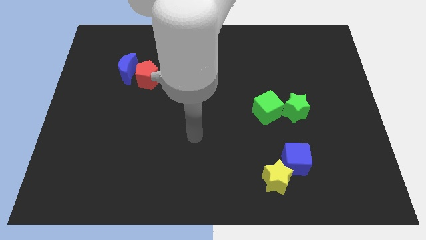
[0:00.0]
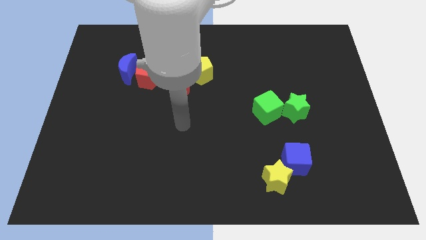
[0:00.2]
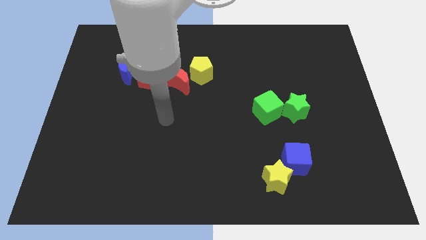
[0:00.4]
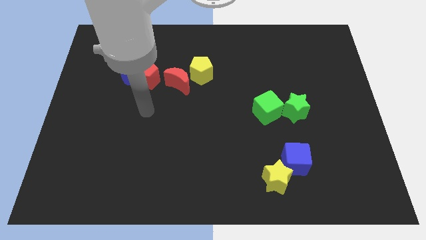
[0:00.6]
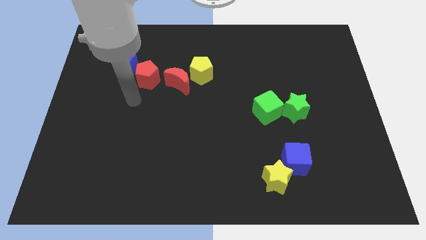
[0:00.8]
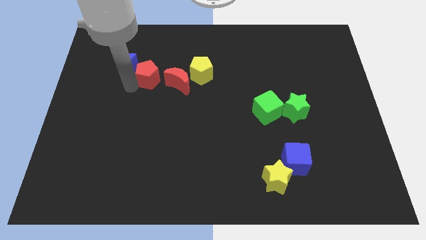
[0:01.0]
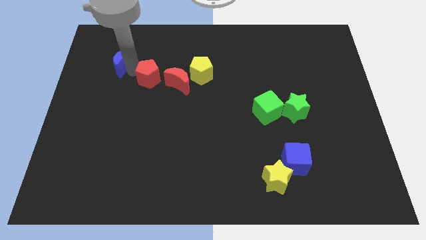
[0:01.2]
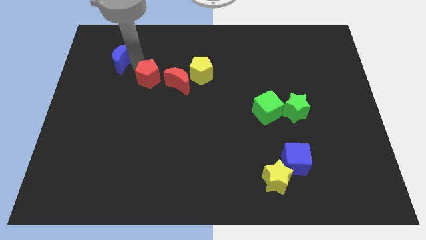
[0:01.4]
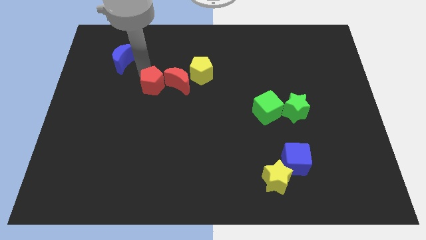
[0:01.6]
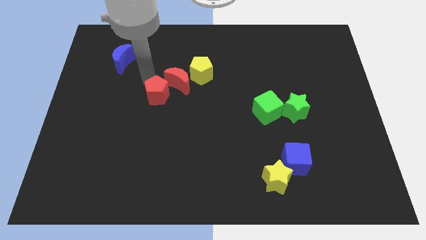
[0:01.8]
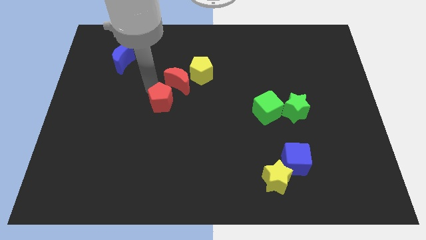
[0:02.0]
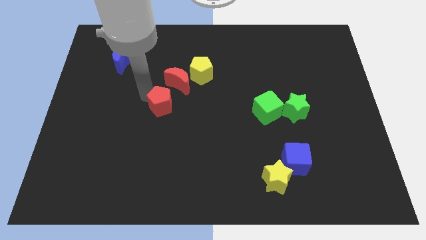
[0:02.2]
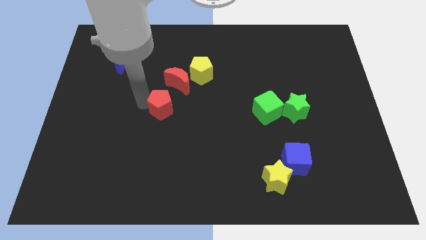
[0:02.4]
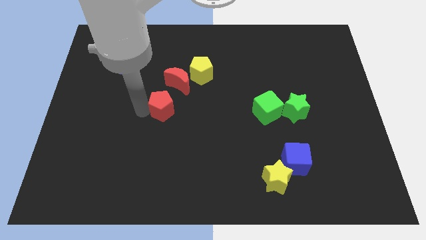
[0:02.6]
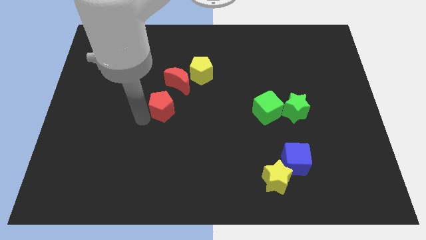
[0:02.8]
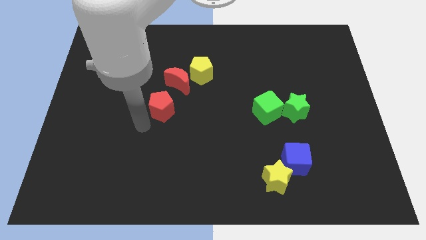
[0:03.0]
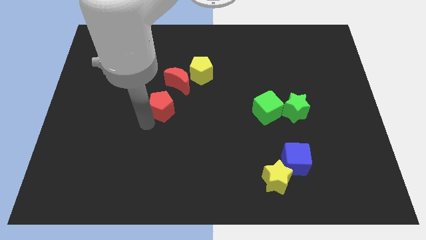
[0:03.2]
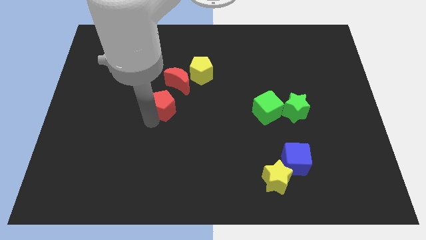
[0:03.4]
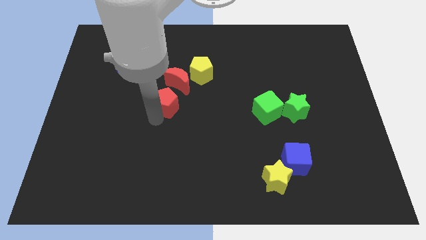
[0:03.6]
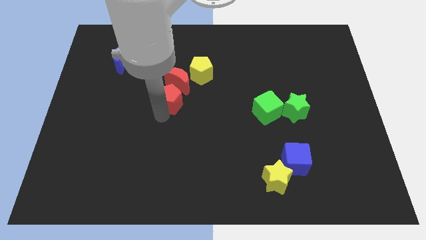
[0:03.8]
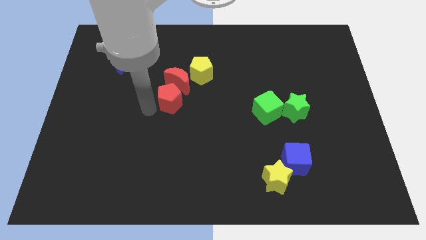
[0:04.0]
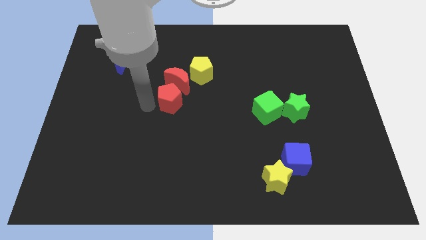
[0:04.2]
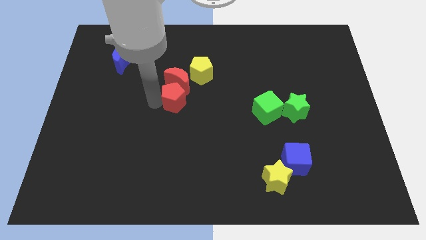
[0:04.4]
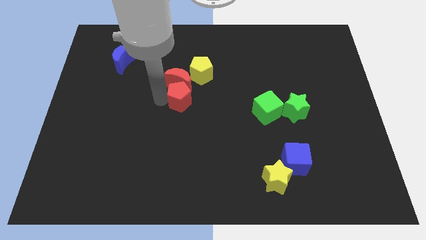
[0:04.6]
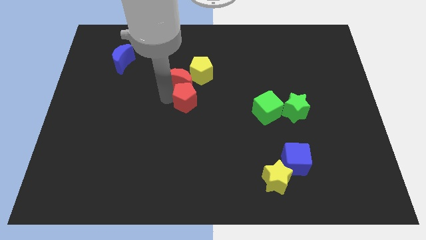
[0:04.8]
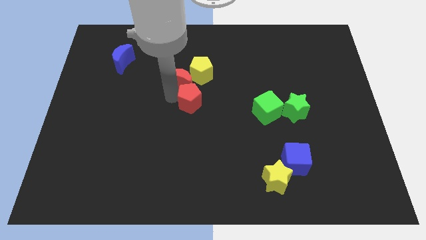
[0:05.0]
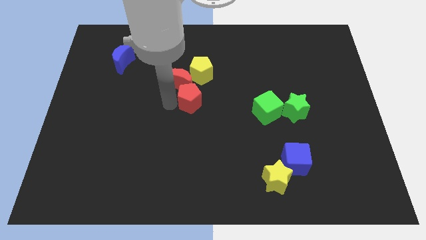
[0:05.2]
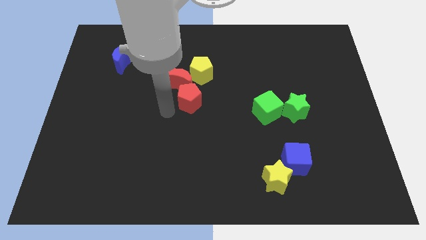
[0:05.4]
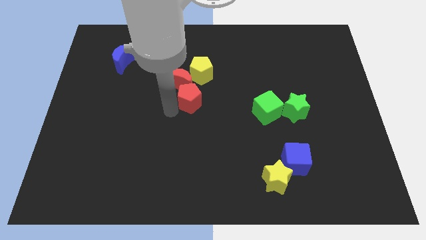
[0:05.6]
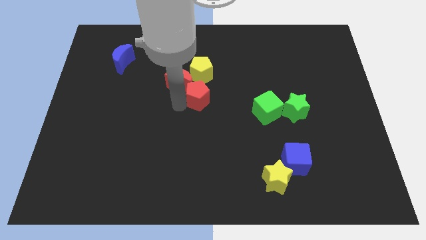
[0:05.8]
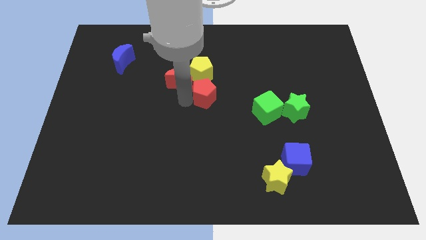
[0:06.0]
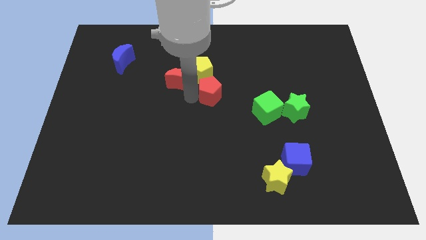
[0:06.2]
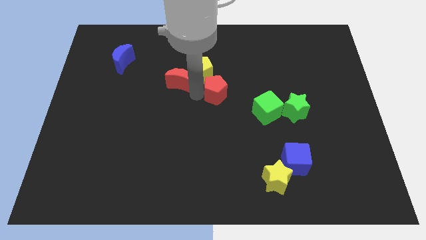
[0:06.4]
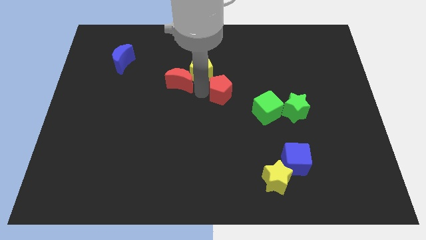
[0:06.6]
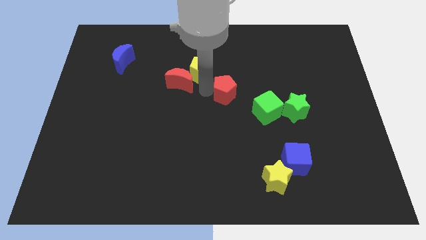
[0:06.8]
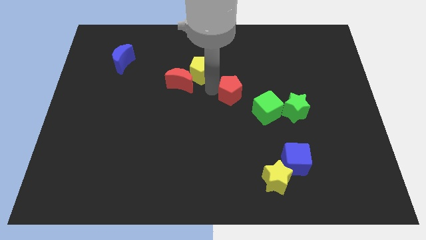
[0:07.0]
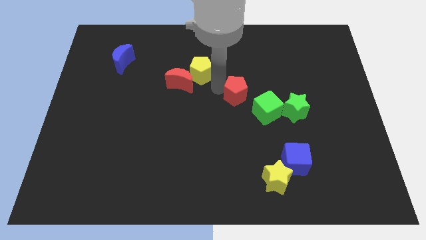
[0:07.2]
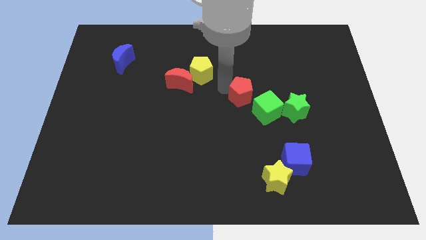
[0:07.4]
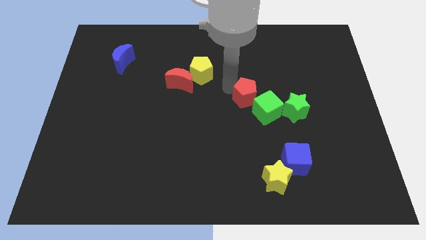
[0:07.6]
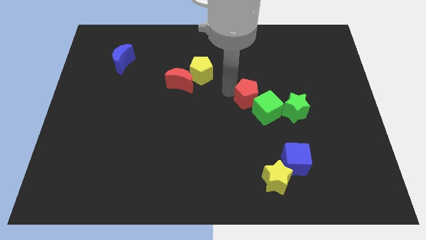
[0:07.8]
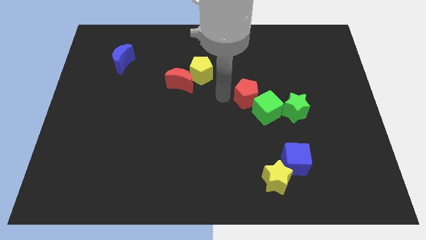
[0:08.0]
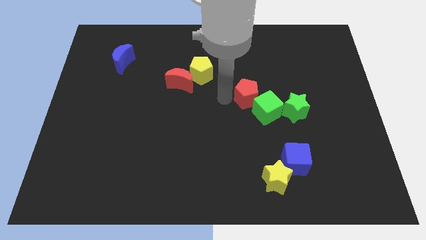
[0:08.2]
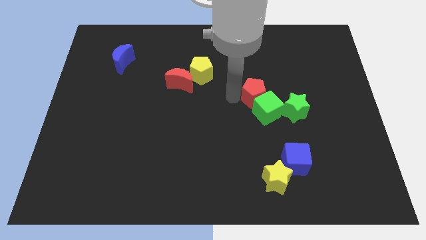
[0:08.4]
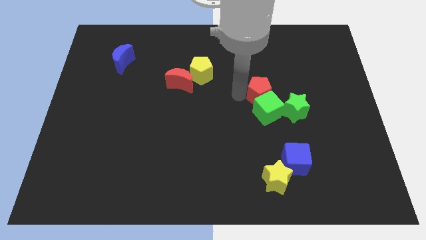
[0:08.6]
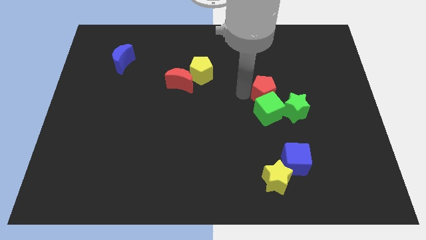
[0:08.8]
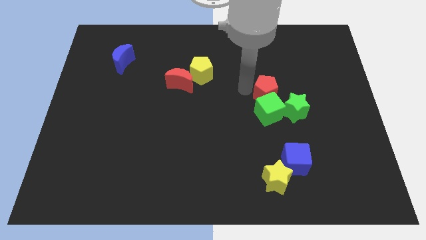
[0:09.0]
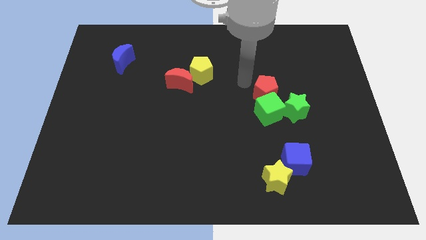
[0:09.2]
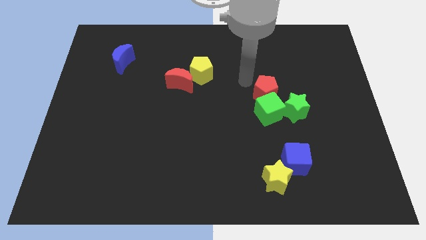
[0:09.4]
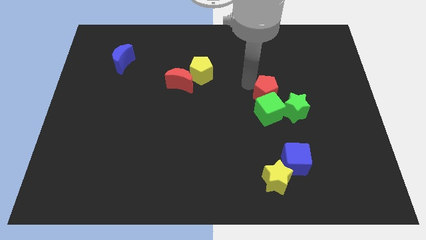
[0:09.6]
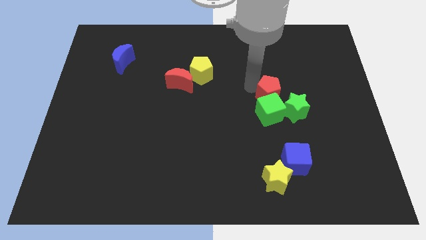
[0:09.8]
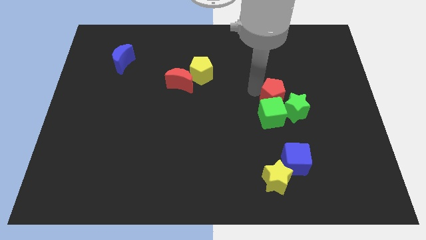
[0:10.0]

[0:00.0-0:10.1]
push the red pentagon close to the green star

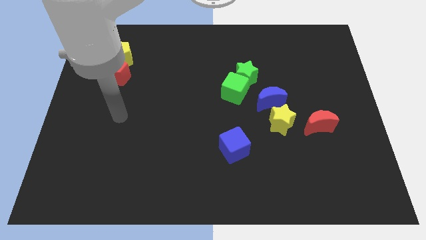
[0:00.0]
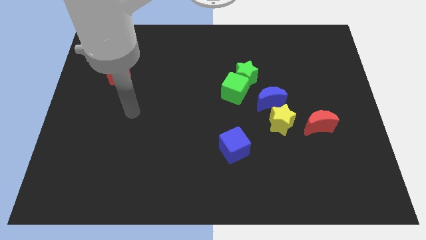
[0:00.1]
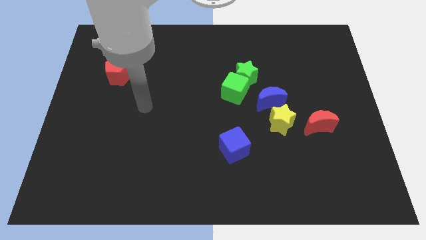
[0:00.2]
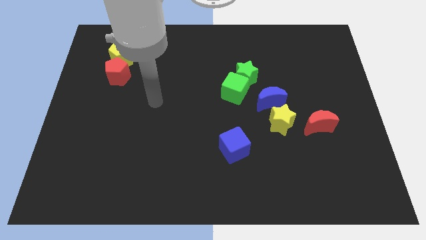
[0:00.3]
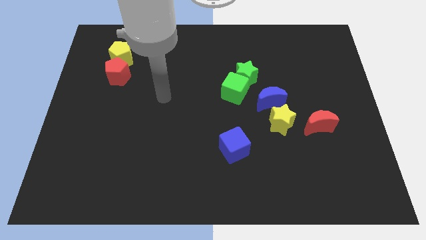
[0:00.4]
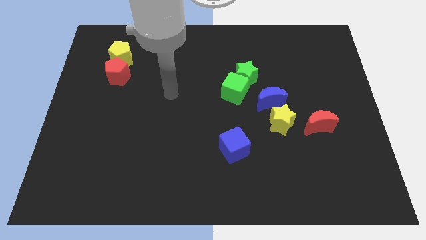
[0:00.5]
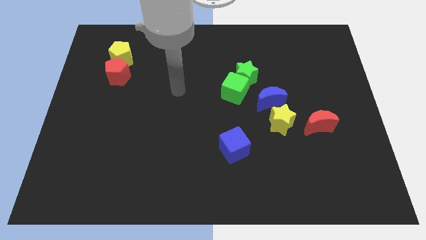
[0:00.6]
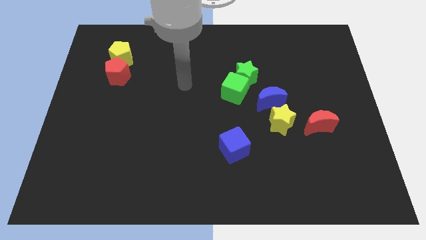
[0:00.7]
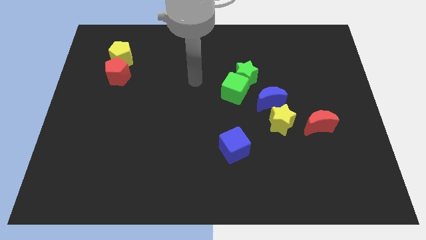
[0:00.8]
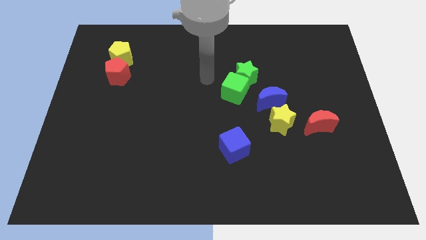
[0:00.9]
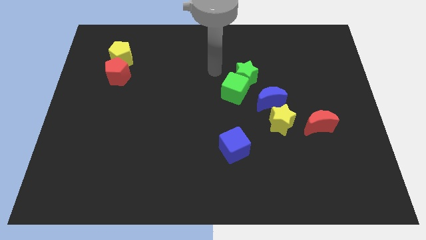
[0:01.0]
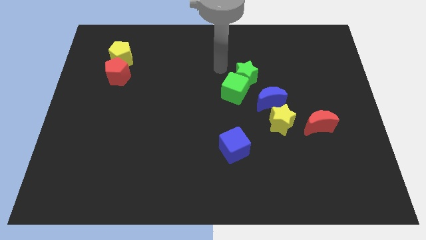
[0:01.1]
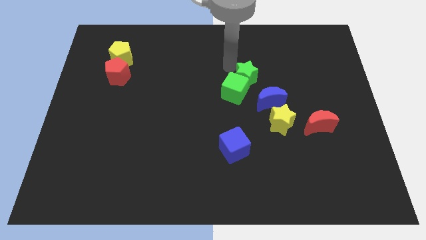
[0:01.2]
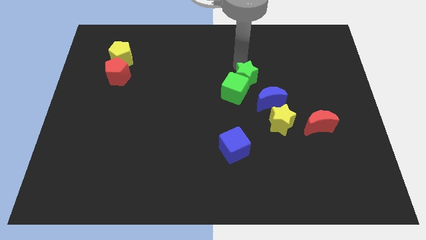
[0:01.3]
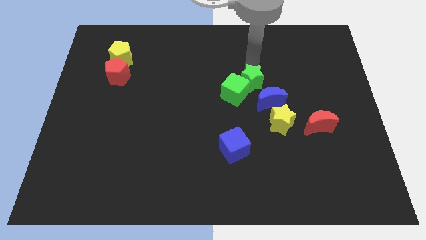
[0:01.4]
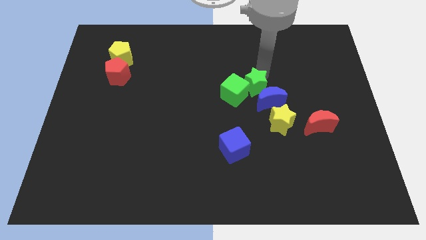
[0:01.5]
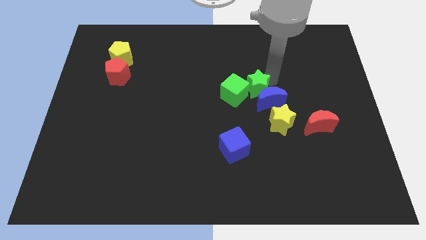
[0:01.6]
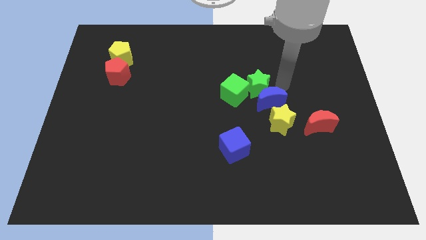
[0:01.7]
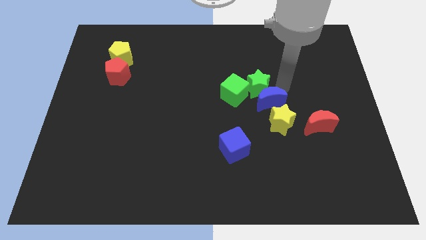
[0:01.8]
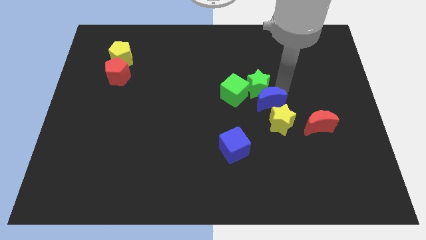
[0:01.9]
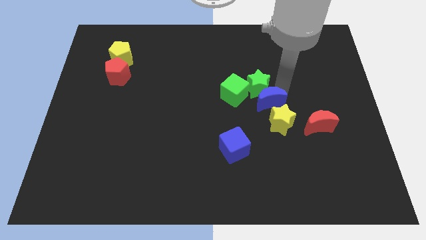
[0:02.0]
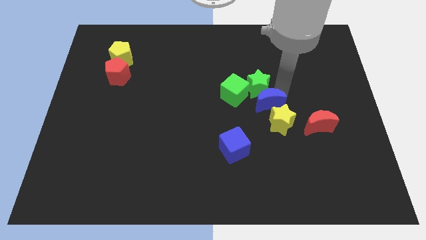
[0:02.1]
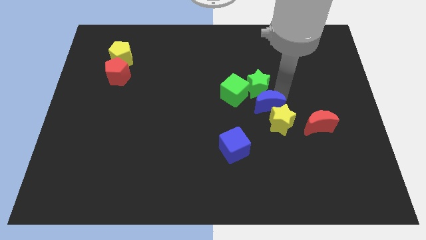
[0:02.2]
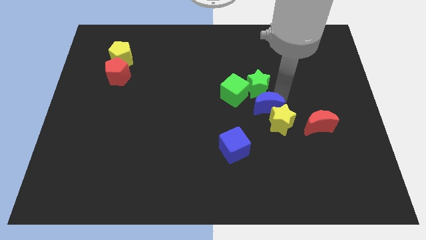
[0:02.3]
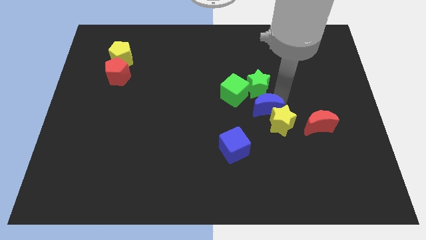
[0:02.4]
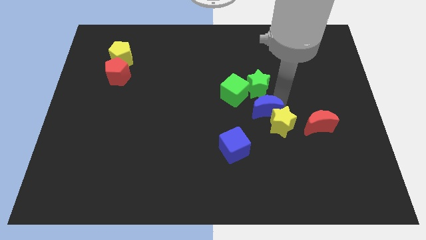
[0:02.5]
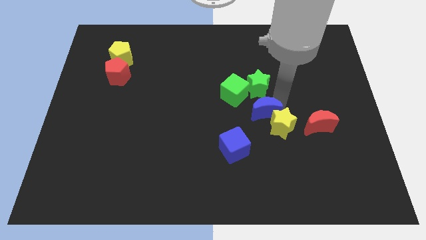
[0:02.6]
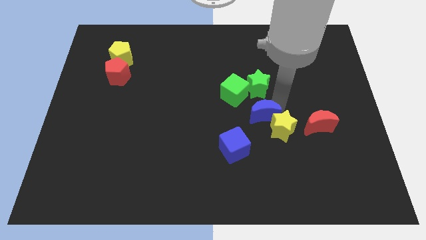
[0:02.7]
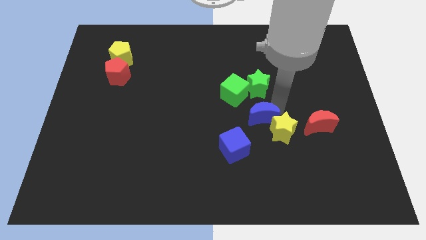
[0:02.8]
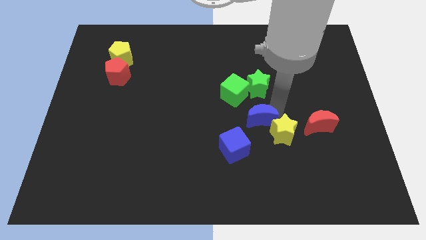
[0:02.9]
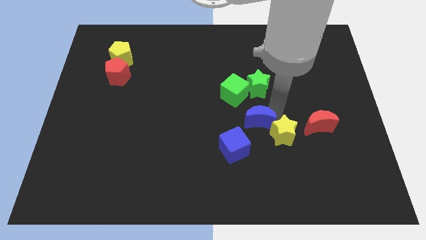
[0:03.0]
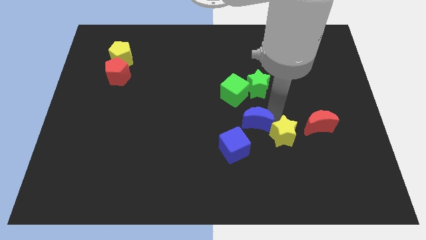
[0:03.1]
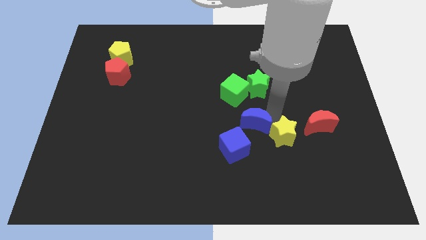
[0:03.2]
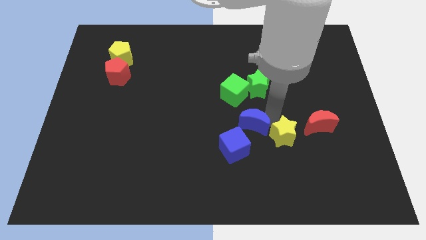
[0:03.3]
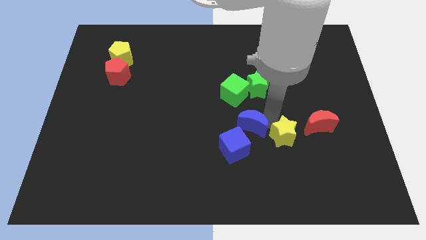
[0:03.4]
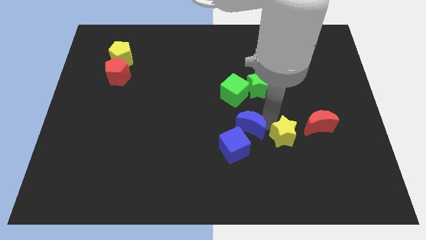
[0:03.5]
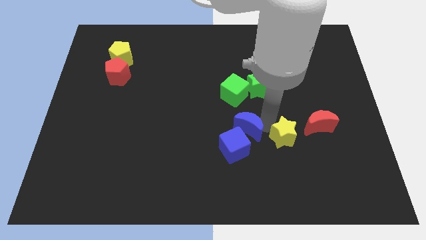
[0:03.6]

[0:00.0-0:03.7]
put the blue moon to the blue cube

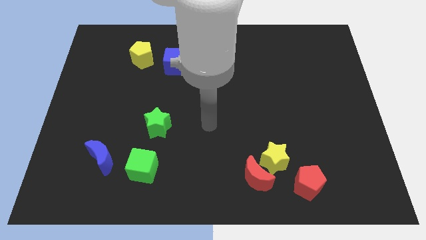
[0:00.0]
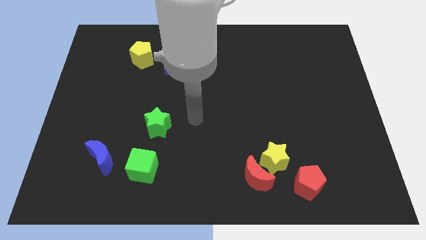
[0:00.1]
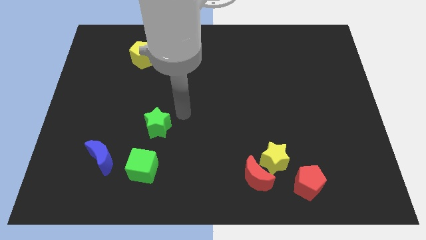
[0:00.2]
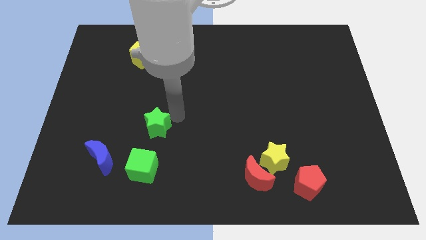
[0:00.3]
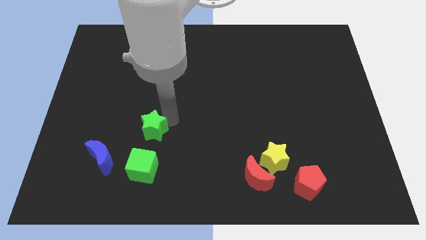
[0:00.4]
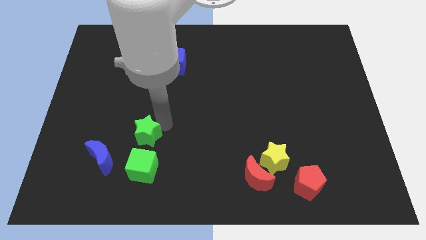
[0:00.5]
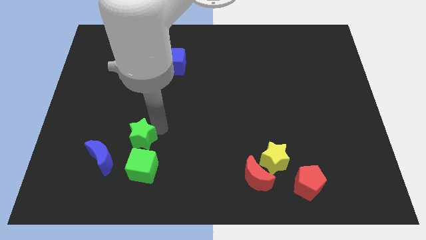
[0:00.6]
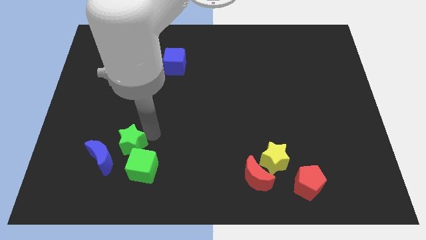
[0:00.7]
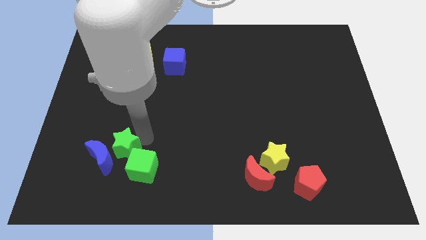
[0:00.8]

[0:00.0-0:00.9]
move the green star towards the blue moon
